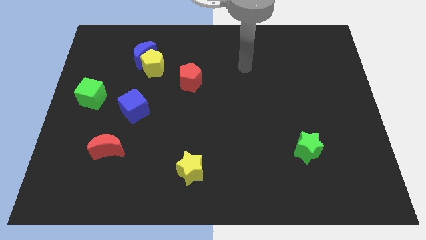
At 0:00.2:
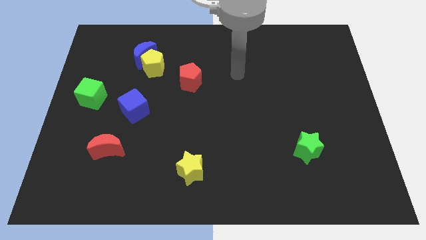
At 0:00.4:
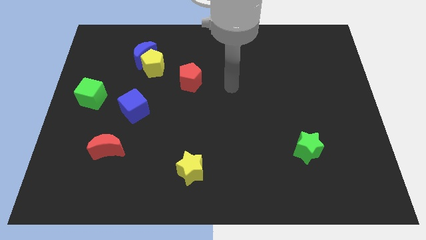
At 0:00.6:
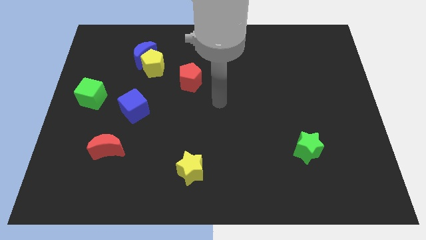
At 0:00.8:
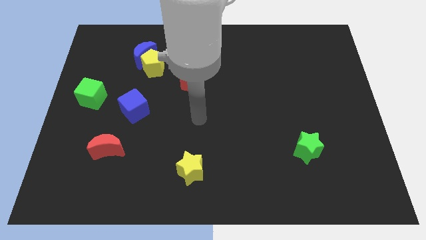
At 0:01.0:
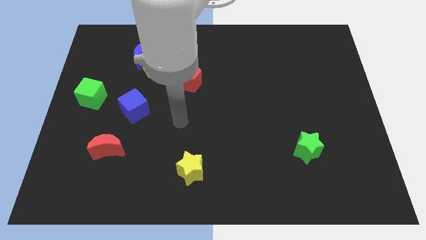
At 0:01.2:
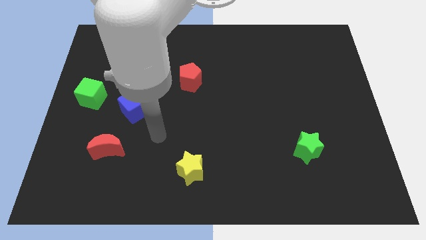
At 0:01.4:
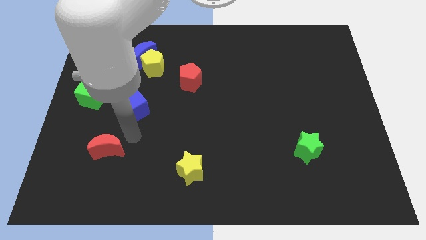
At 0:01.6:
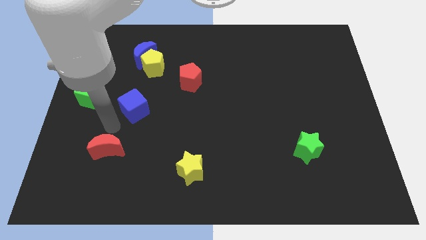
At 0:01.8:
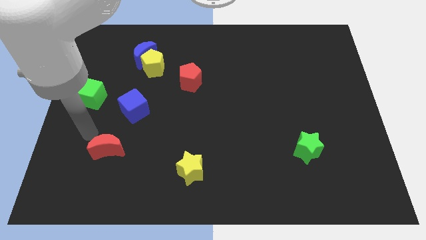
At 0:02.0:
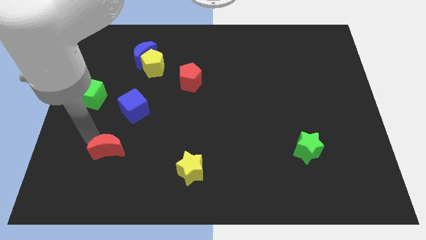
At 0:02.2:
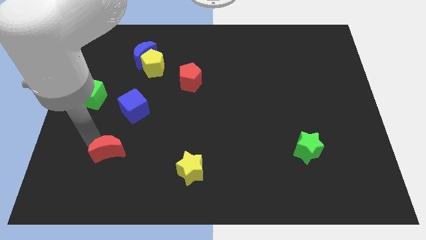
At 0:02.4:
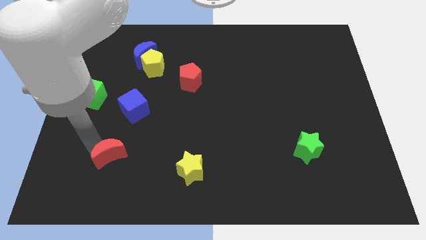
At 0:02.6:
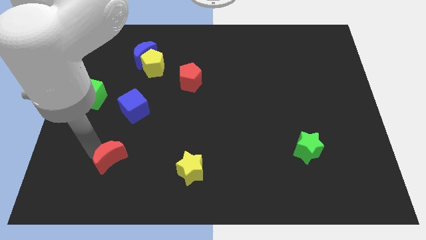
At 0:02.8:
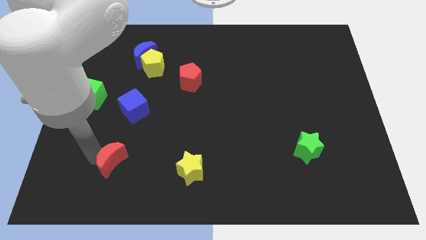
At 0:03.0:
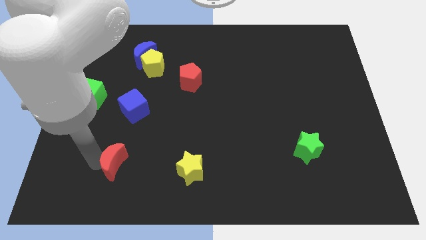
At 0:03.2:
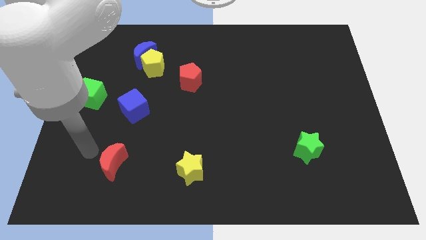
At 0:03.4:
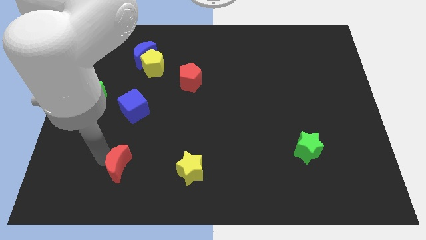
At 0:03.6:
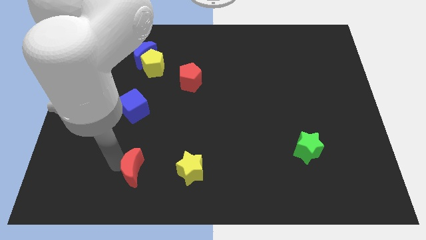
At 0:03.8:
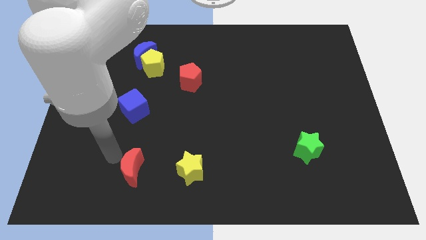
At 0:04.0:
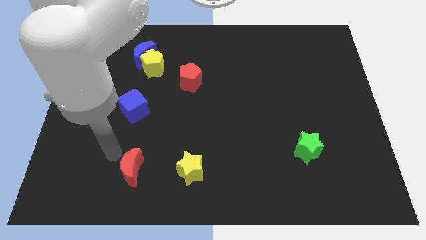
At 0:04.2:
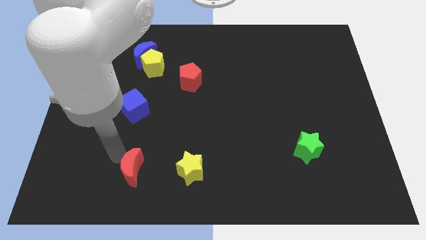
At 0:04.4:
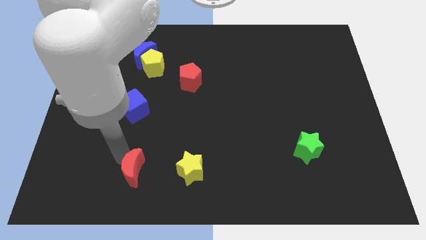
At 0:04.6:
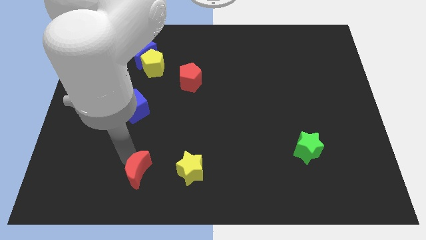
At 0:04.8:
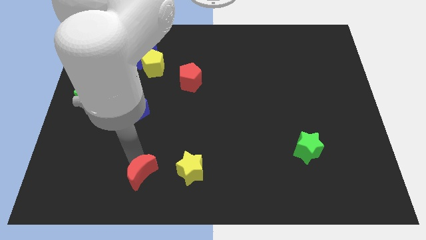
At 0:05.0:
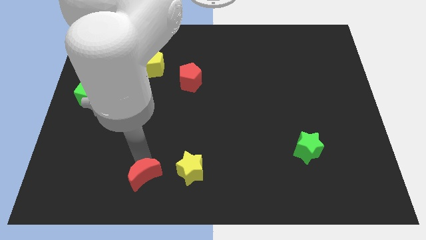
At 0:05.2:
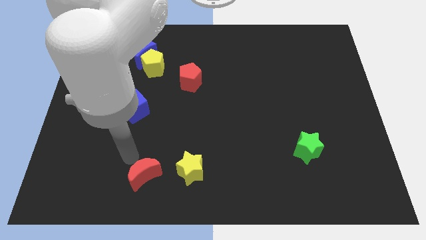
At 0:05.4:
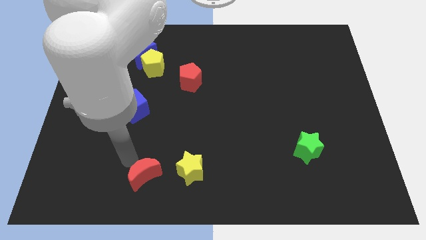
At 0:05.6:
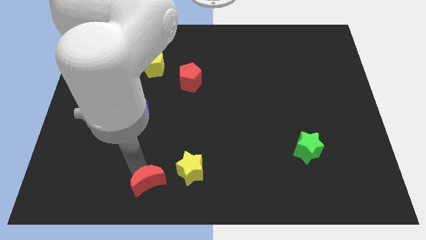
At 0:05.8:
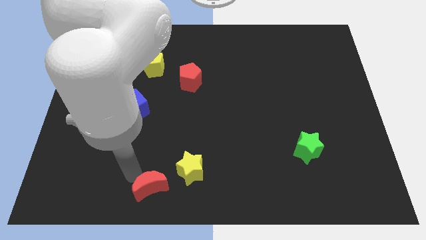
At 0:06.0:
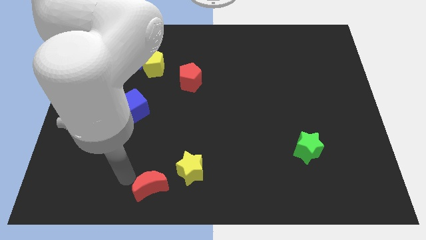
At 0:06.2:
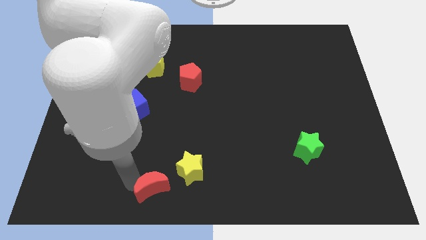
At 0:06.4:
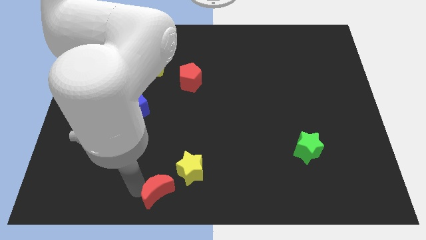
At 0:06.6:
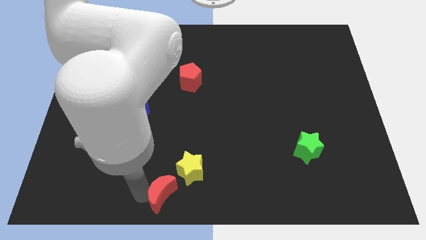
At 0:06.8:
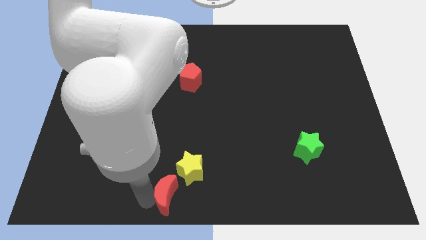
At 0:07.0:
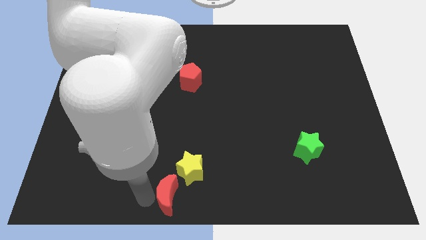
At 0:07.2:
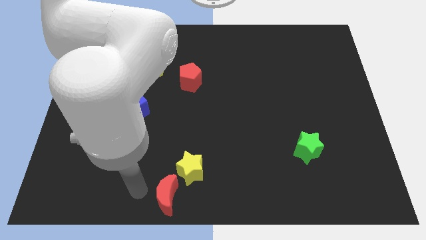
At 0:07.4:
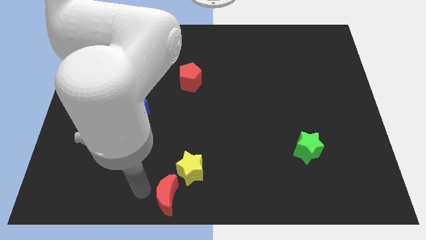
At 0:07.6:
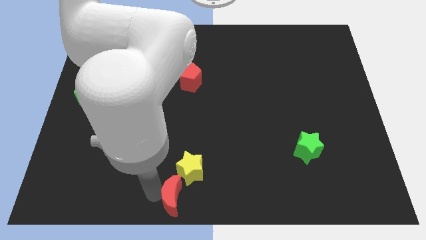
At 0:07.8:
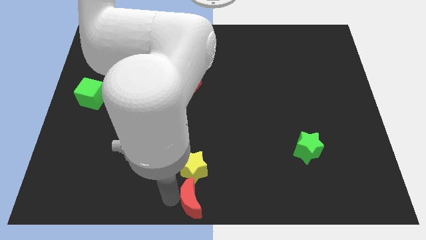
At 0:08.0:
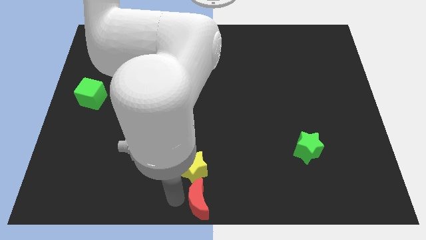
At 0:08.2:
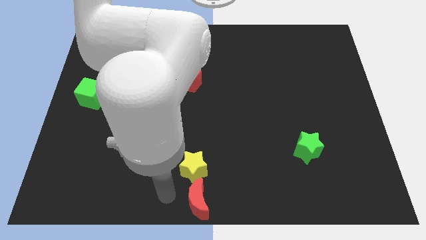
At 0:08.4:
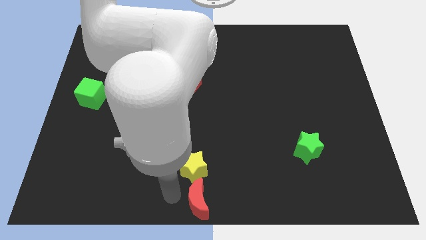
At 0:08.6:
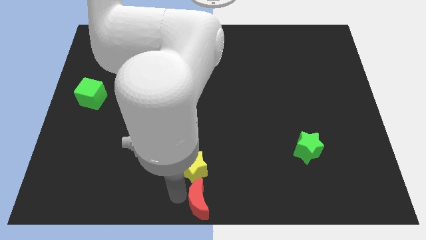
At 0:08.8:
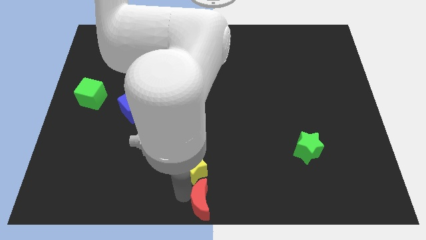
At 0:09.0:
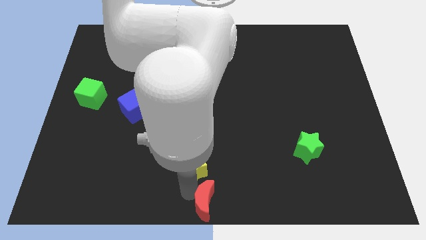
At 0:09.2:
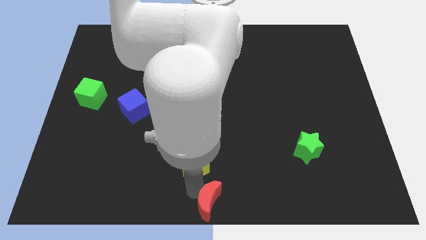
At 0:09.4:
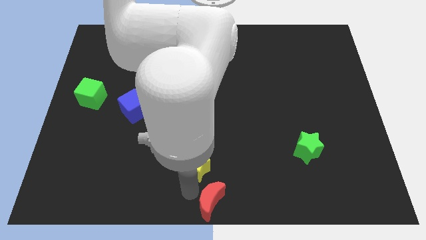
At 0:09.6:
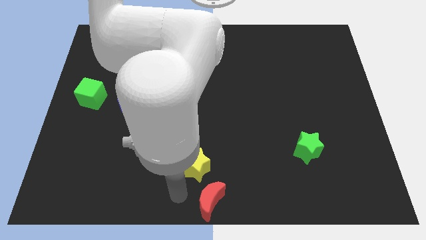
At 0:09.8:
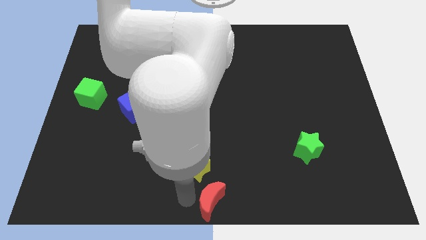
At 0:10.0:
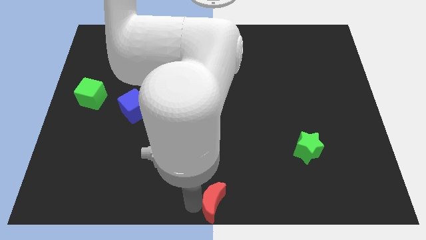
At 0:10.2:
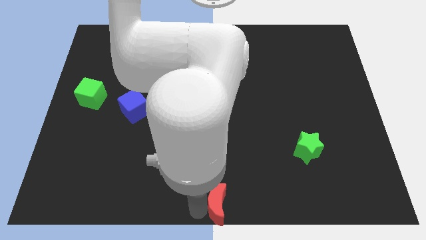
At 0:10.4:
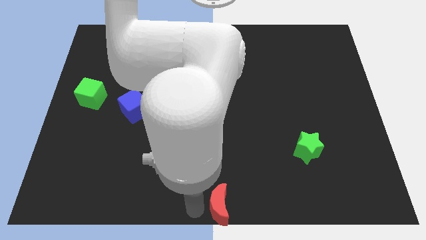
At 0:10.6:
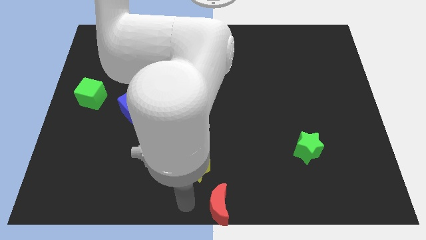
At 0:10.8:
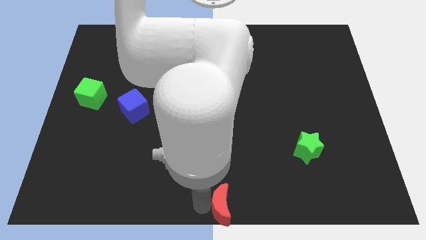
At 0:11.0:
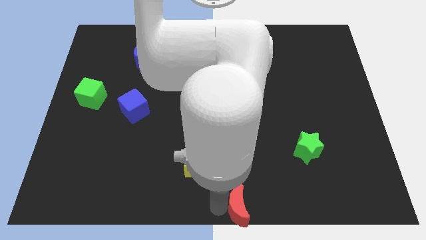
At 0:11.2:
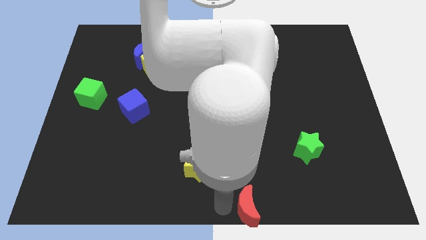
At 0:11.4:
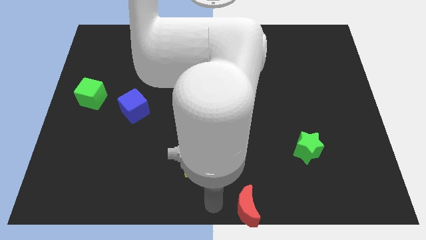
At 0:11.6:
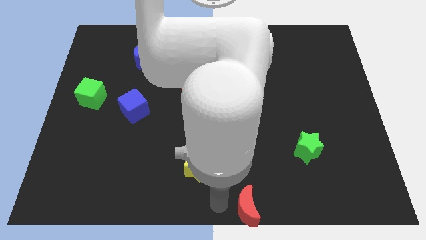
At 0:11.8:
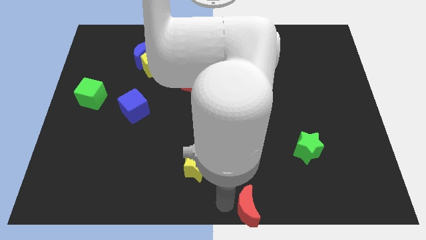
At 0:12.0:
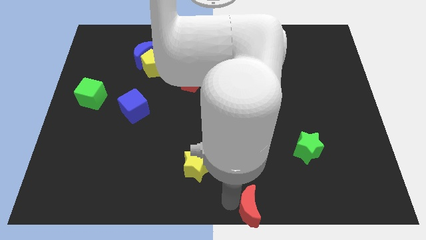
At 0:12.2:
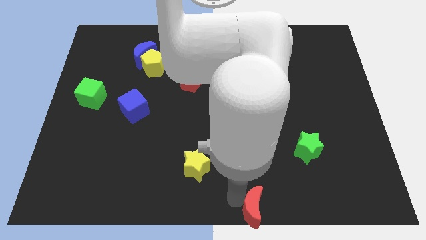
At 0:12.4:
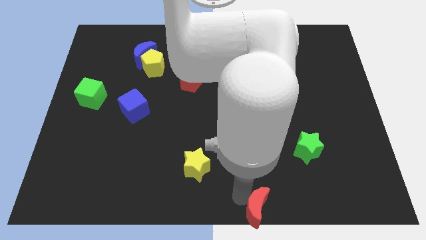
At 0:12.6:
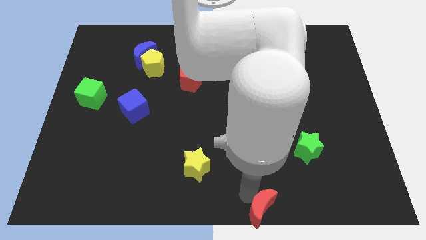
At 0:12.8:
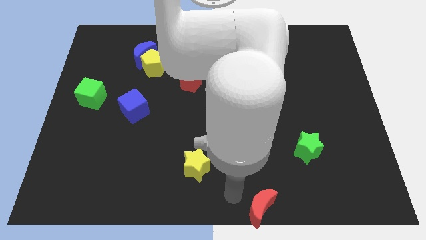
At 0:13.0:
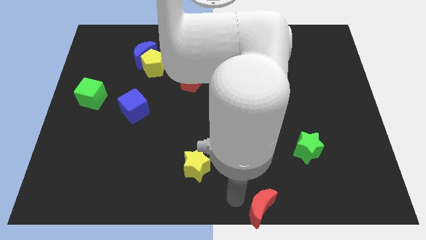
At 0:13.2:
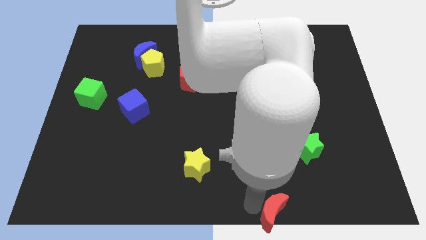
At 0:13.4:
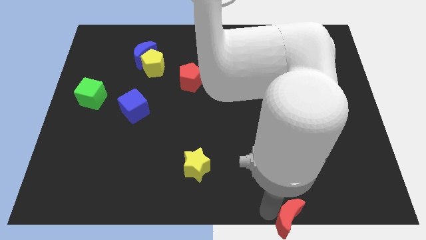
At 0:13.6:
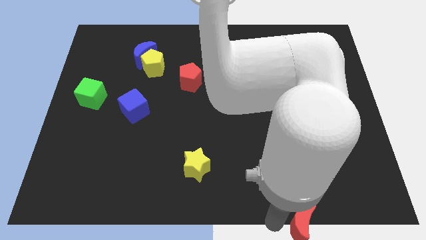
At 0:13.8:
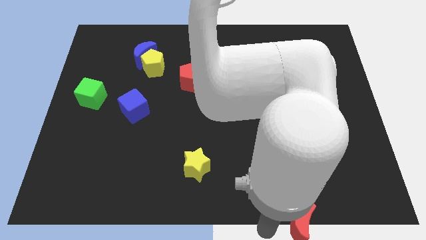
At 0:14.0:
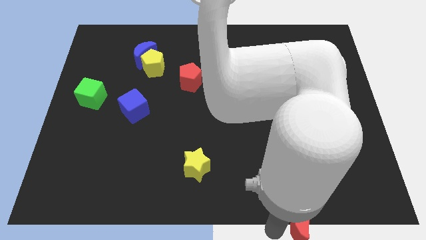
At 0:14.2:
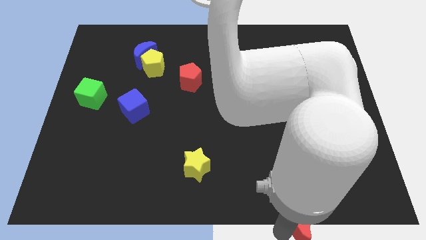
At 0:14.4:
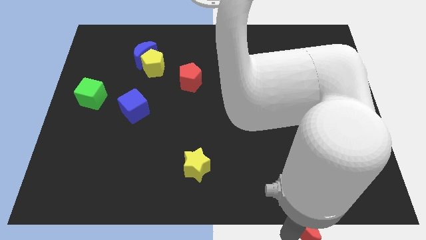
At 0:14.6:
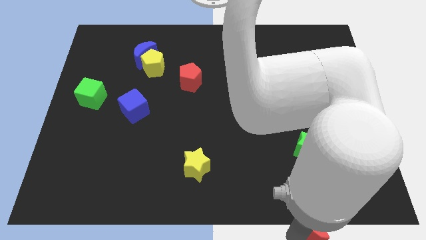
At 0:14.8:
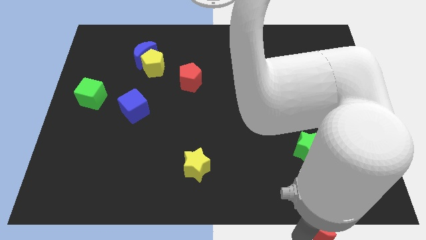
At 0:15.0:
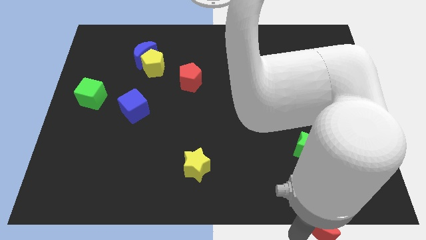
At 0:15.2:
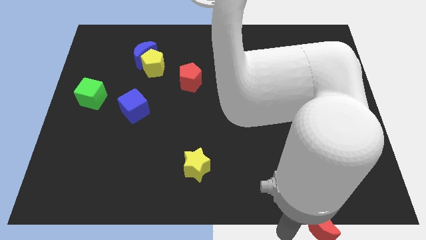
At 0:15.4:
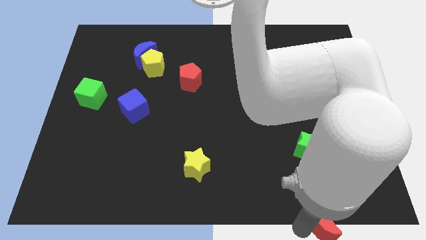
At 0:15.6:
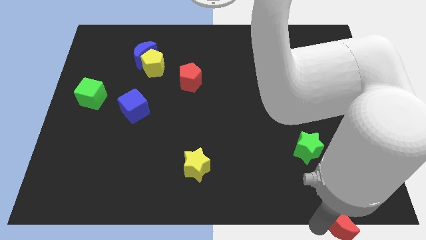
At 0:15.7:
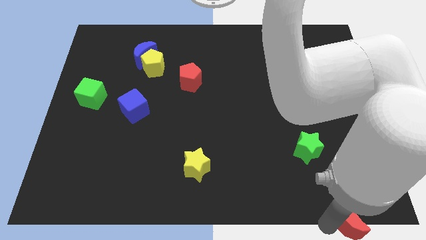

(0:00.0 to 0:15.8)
slide the red moon to the bottom right of the board
